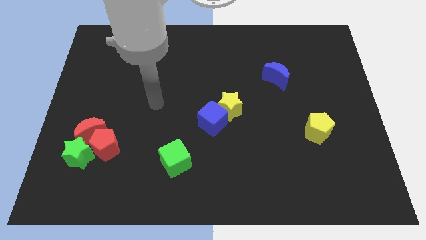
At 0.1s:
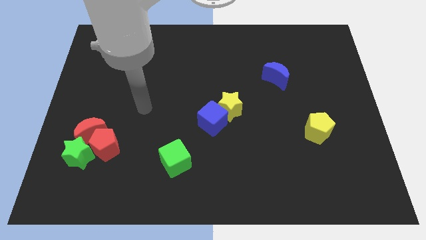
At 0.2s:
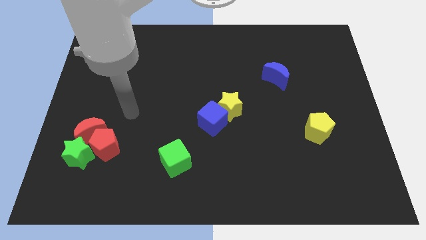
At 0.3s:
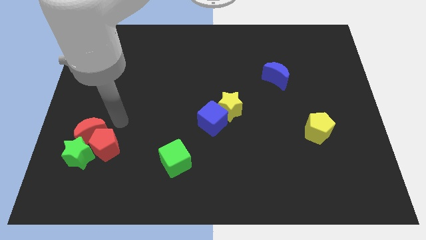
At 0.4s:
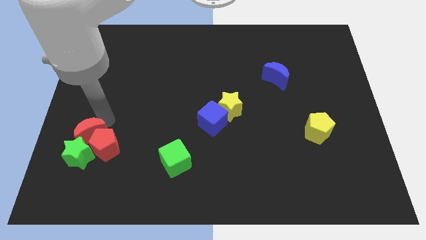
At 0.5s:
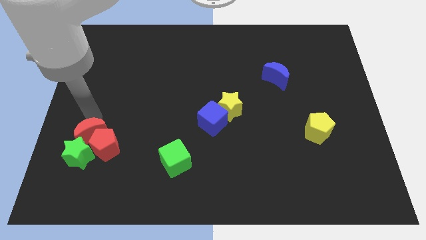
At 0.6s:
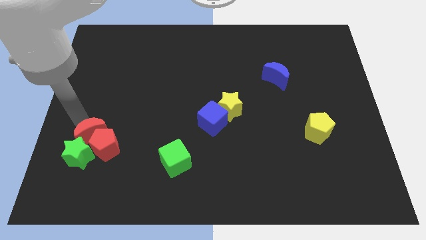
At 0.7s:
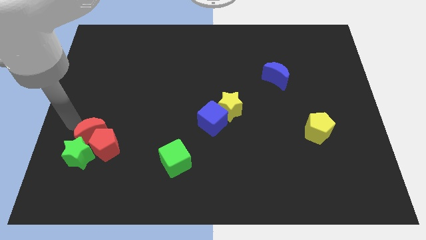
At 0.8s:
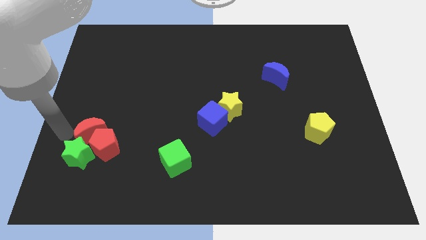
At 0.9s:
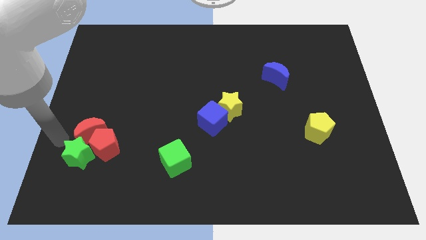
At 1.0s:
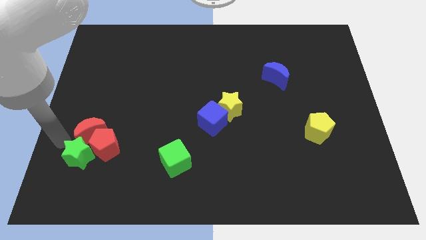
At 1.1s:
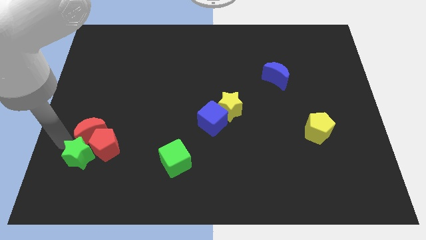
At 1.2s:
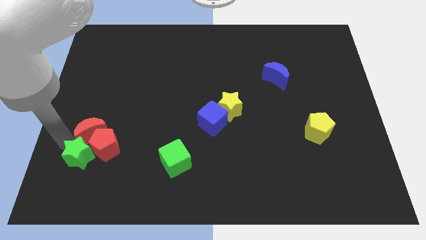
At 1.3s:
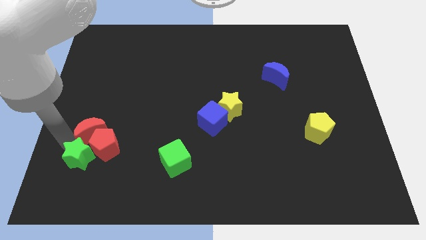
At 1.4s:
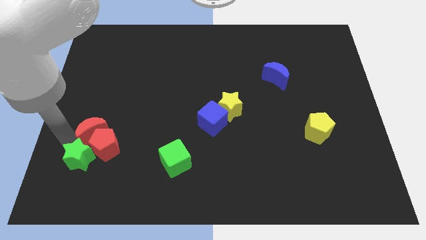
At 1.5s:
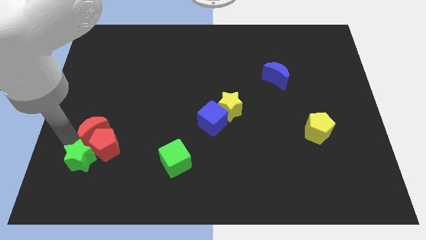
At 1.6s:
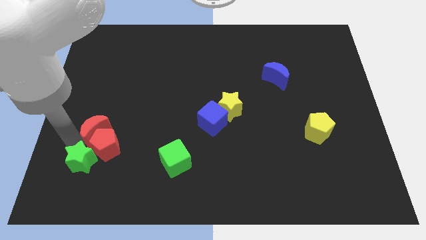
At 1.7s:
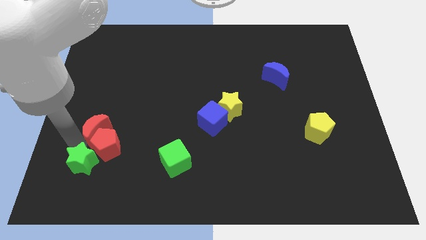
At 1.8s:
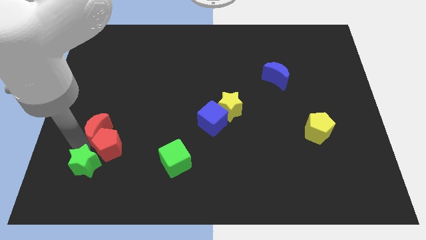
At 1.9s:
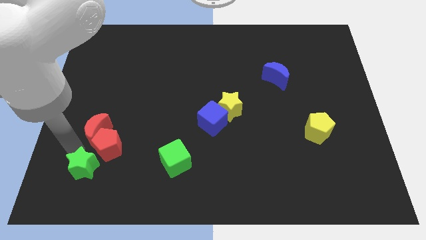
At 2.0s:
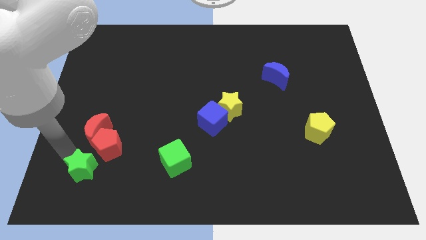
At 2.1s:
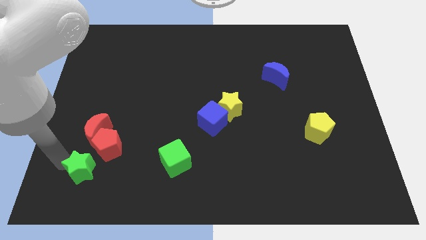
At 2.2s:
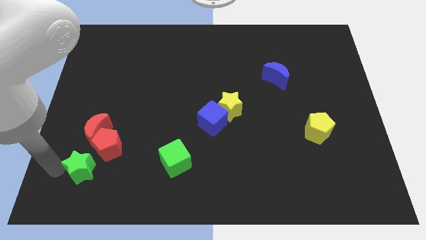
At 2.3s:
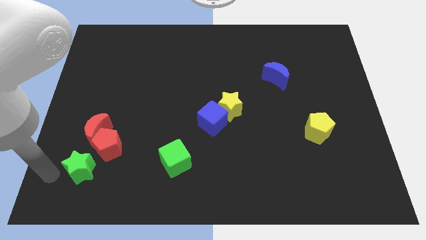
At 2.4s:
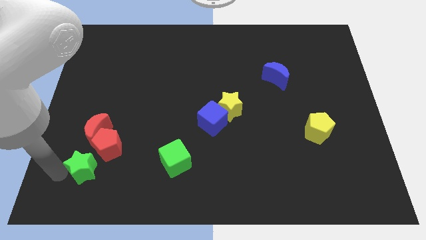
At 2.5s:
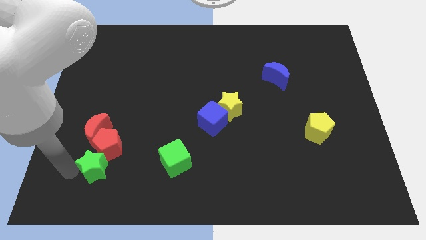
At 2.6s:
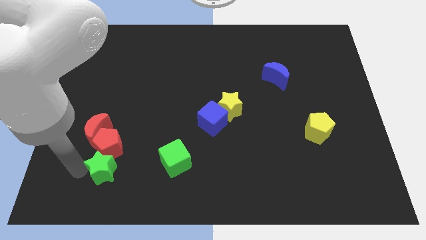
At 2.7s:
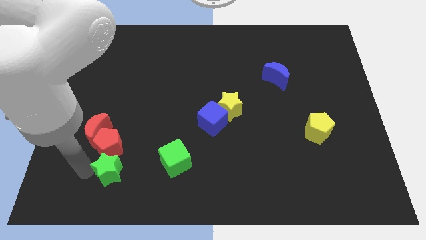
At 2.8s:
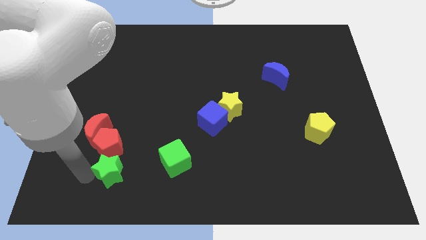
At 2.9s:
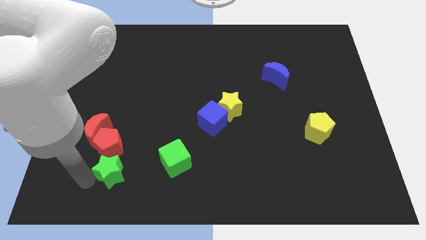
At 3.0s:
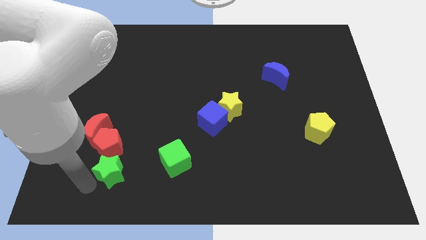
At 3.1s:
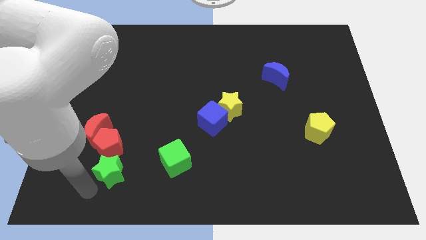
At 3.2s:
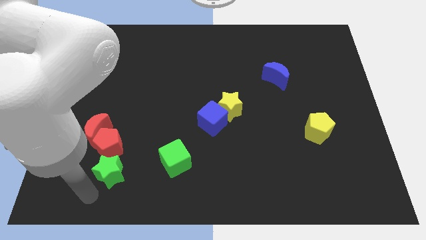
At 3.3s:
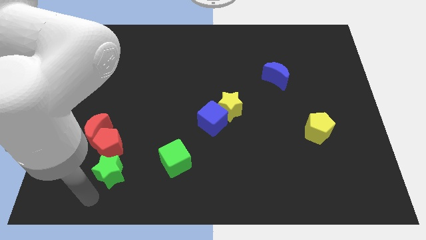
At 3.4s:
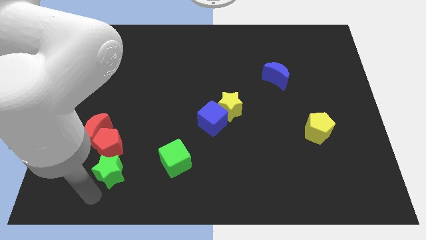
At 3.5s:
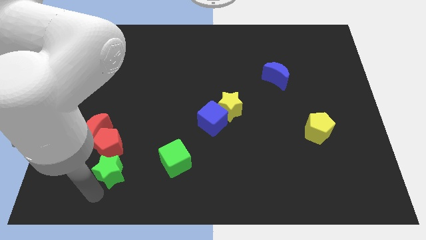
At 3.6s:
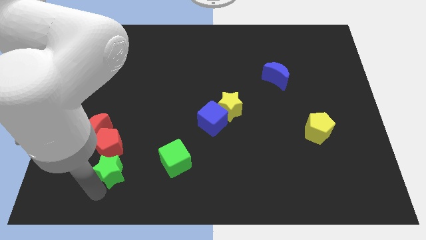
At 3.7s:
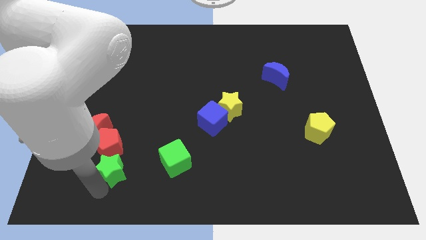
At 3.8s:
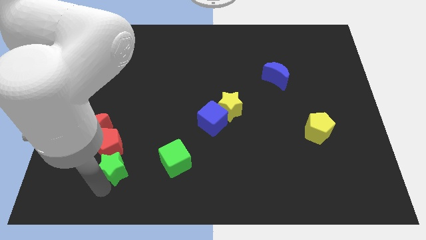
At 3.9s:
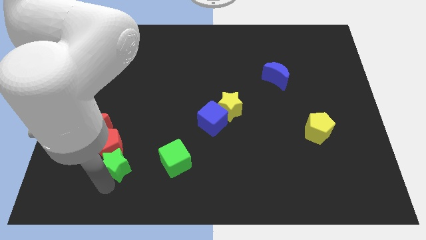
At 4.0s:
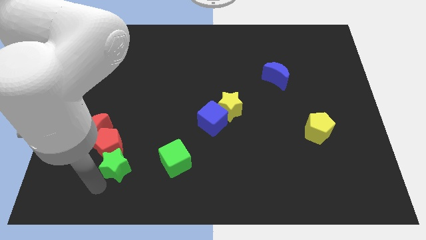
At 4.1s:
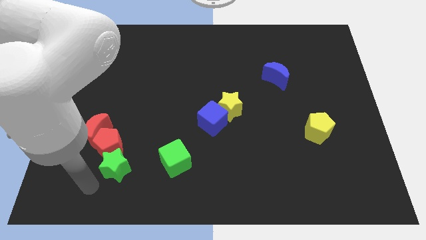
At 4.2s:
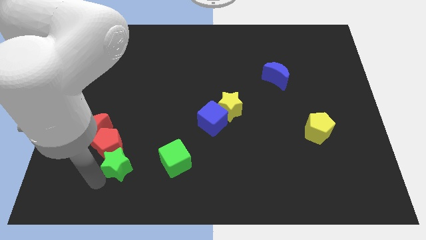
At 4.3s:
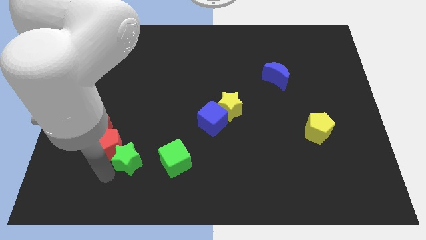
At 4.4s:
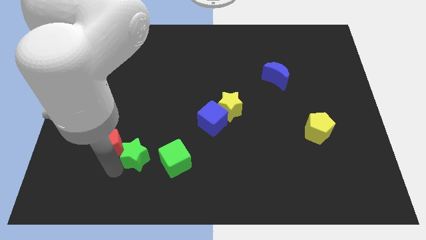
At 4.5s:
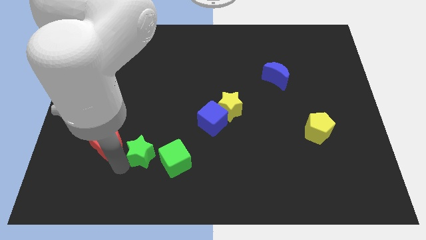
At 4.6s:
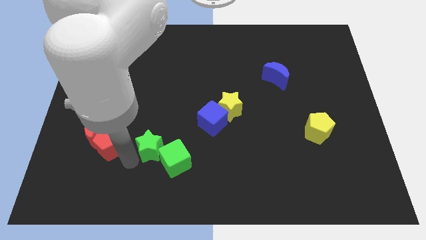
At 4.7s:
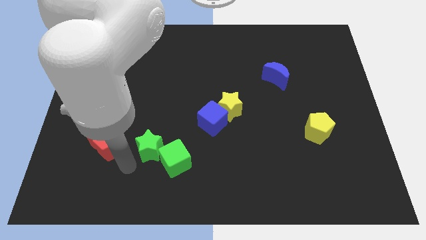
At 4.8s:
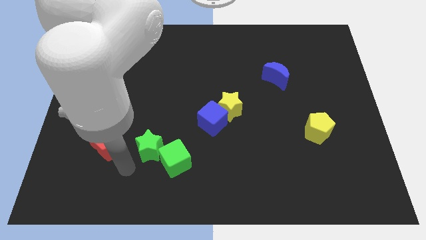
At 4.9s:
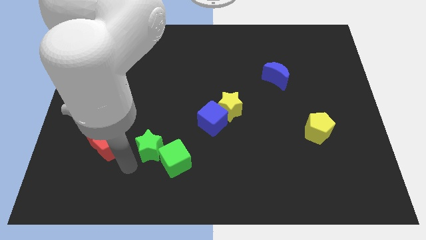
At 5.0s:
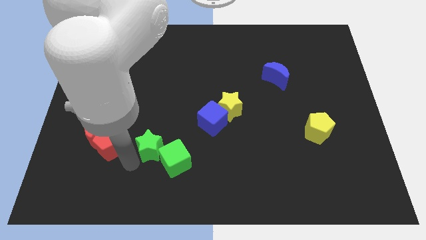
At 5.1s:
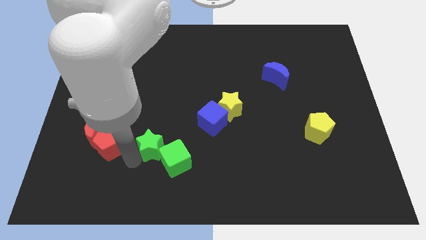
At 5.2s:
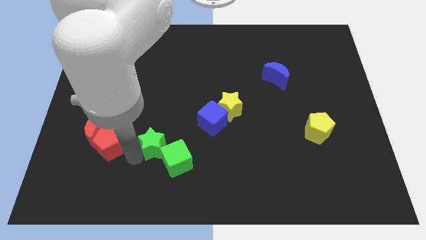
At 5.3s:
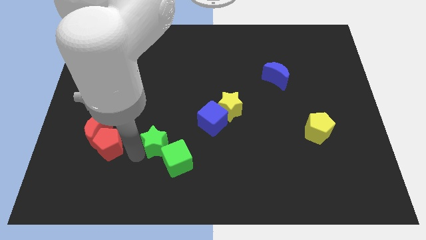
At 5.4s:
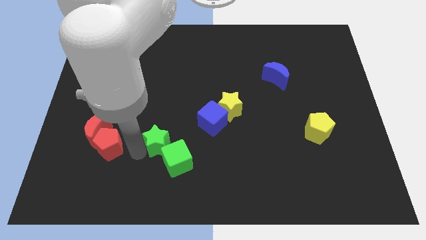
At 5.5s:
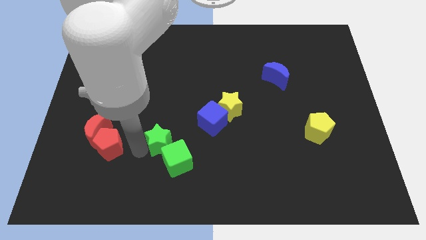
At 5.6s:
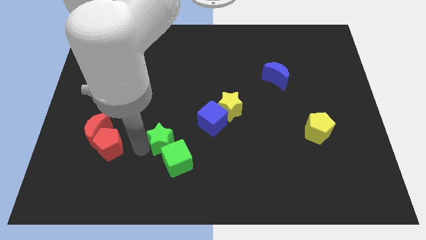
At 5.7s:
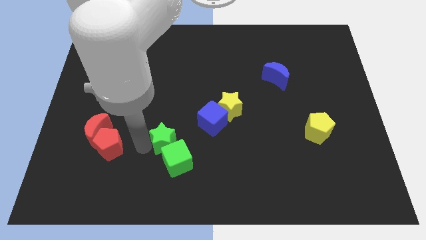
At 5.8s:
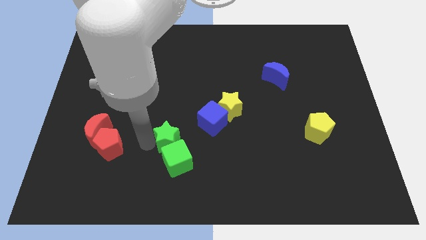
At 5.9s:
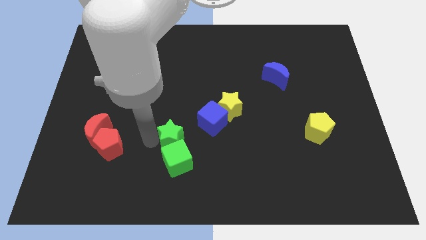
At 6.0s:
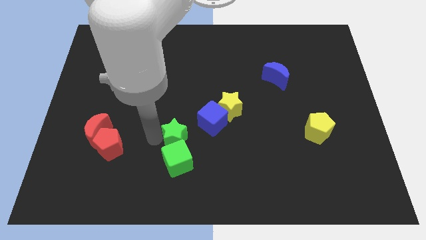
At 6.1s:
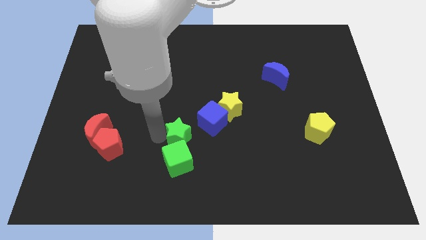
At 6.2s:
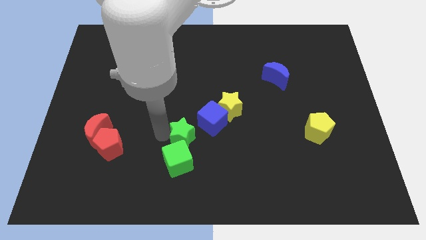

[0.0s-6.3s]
slide the green star to the middle

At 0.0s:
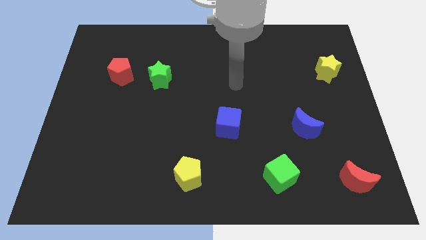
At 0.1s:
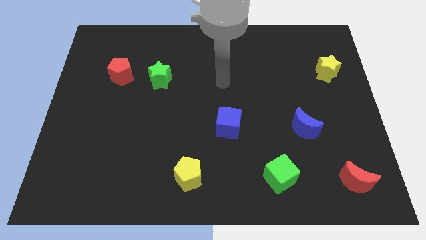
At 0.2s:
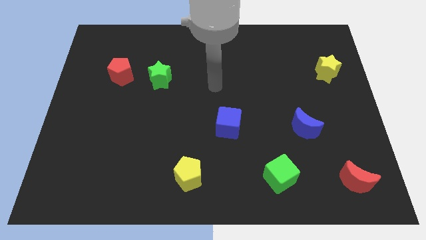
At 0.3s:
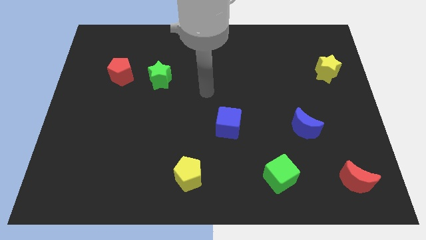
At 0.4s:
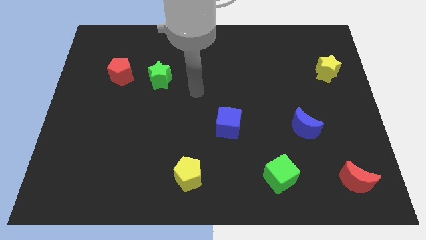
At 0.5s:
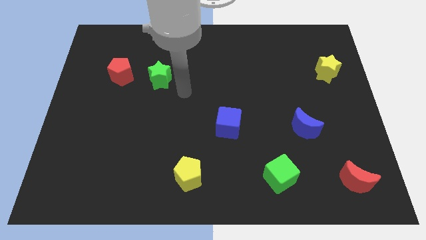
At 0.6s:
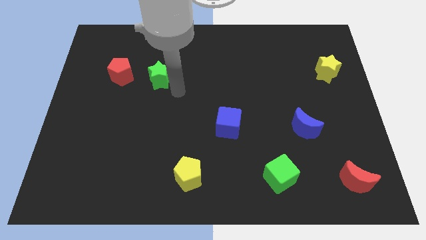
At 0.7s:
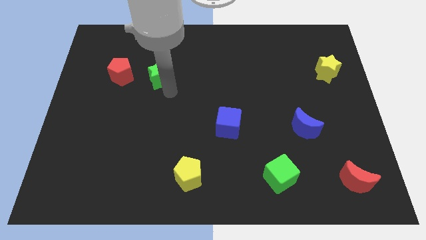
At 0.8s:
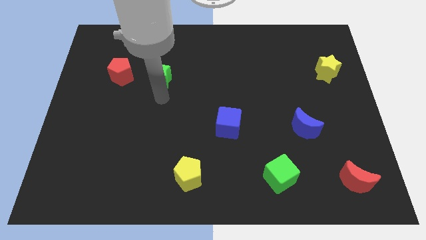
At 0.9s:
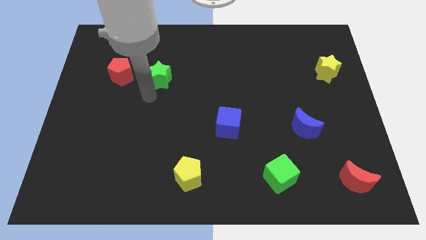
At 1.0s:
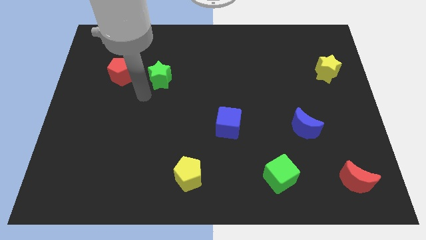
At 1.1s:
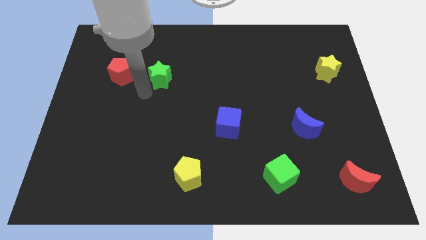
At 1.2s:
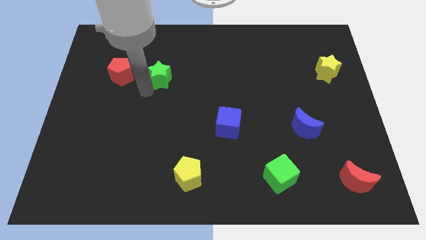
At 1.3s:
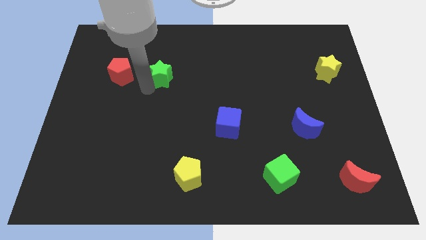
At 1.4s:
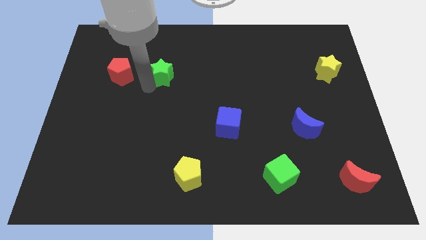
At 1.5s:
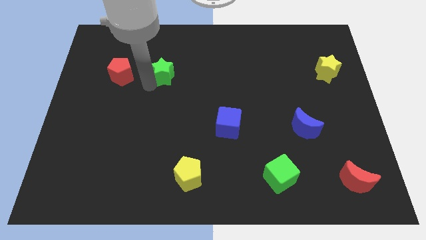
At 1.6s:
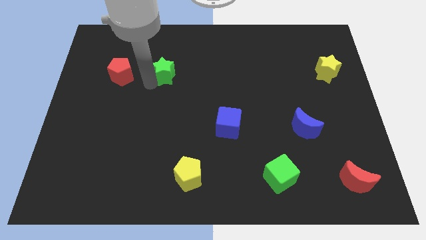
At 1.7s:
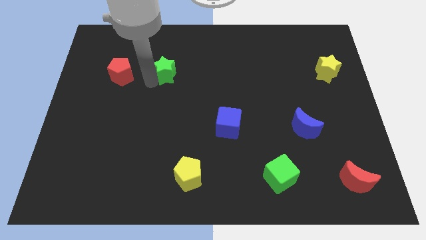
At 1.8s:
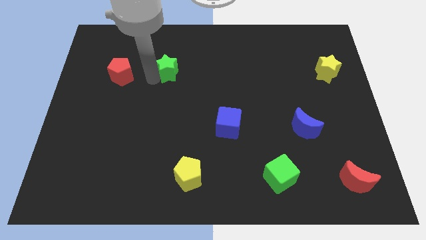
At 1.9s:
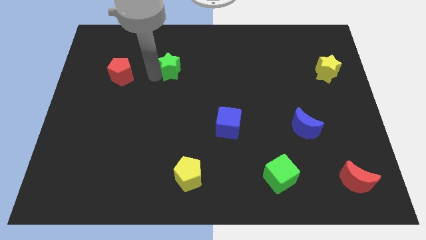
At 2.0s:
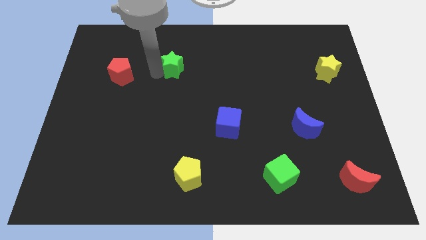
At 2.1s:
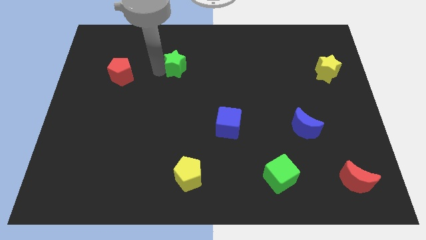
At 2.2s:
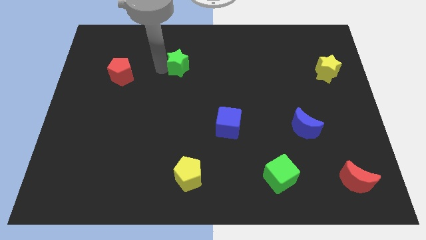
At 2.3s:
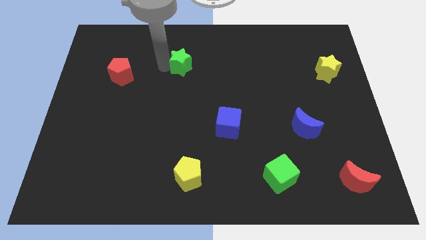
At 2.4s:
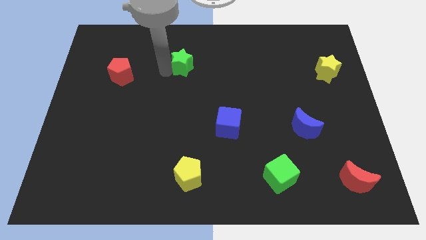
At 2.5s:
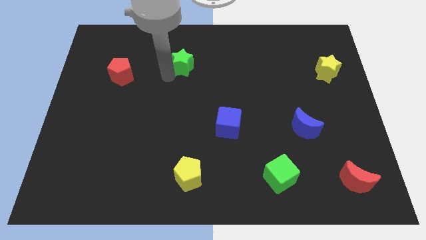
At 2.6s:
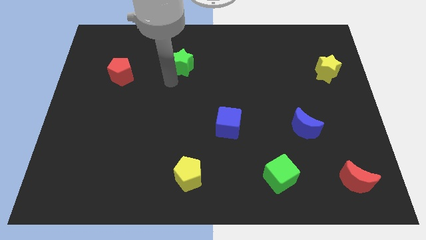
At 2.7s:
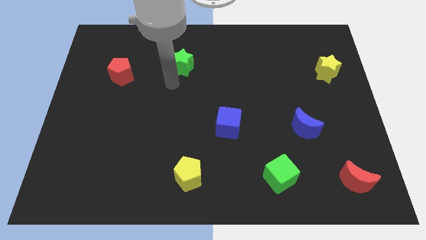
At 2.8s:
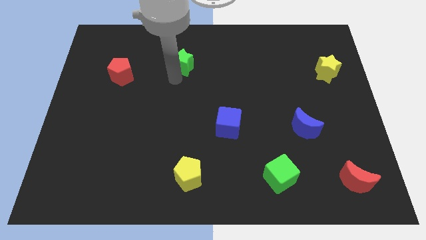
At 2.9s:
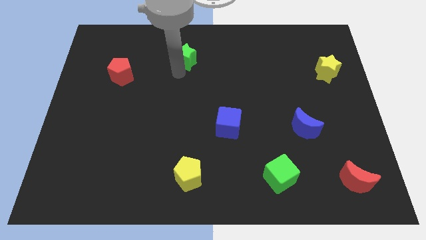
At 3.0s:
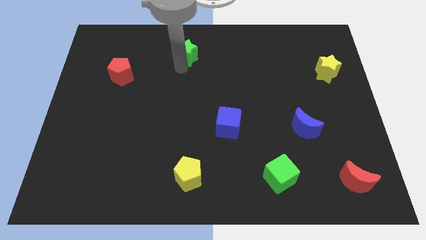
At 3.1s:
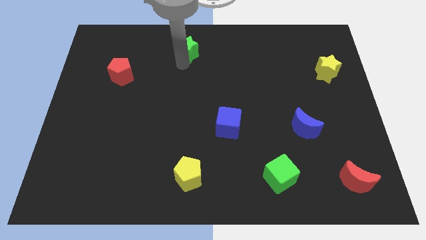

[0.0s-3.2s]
slide the green star to the towards your base
